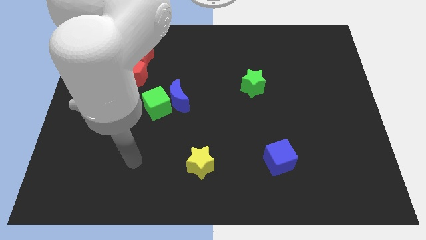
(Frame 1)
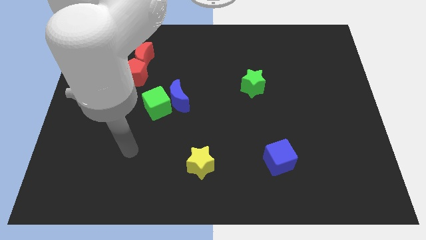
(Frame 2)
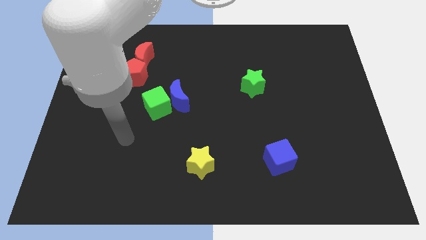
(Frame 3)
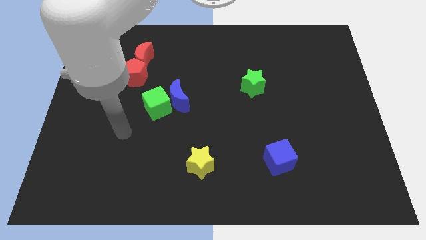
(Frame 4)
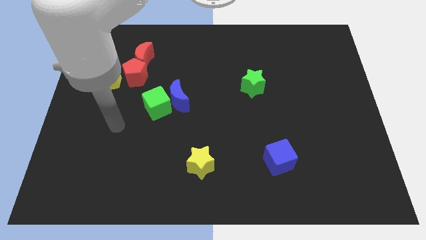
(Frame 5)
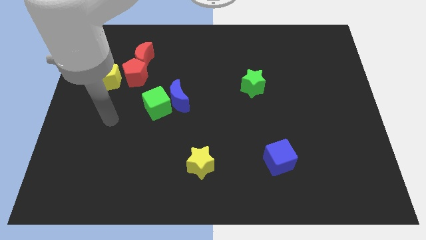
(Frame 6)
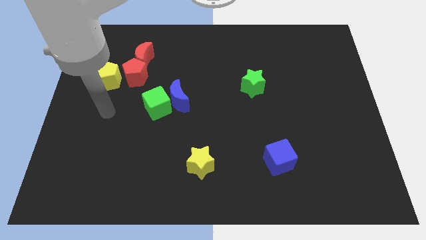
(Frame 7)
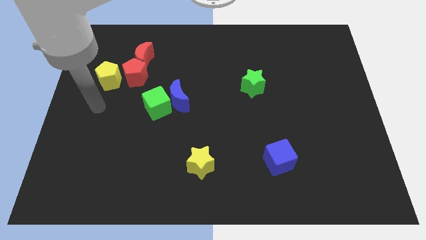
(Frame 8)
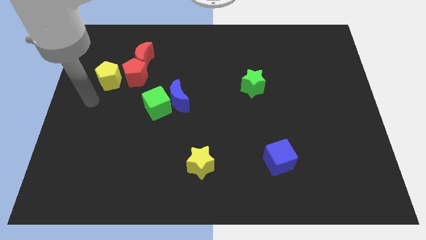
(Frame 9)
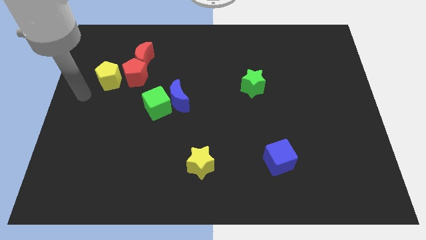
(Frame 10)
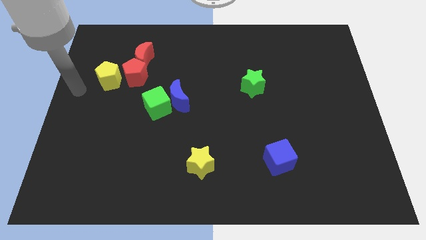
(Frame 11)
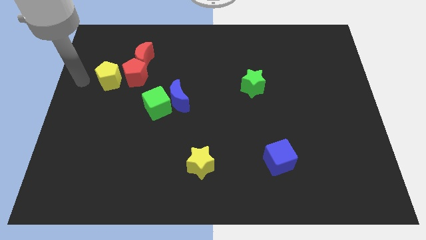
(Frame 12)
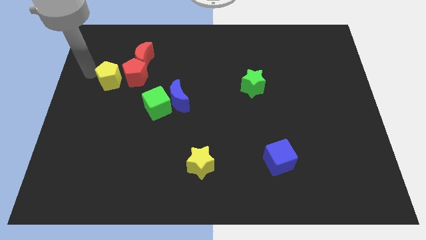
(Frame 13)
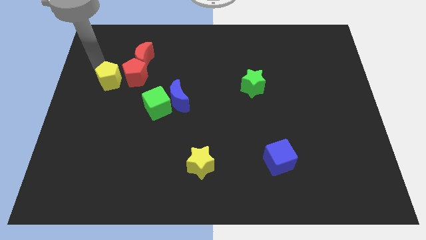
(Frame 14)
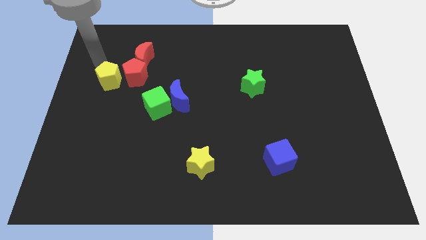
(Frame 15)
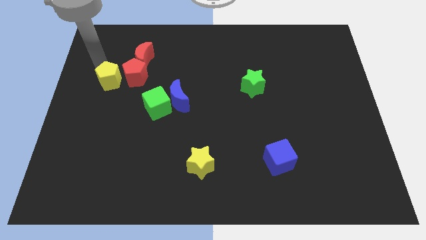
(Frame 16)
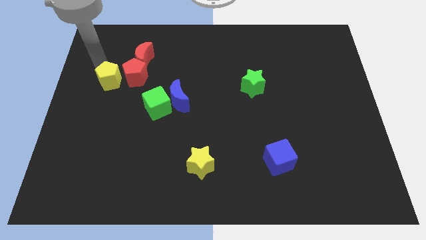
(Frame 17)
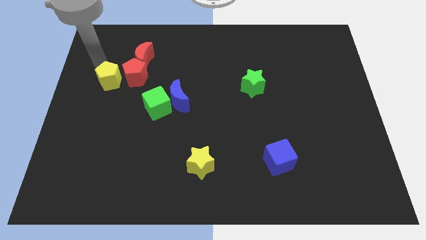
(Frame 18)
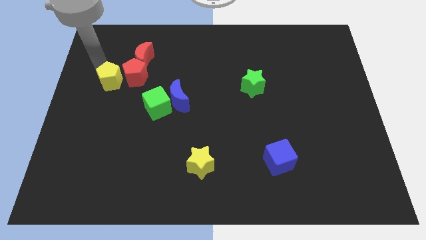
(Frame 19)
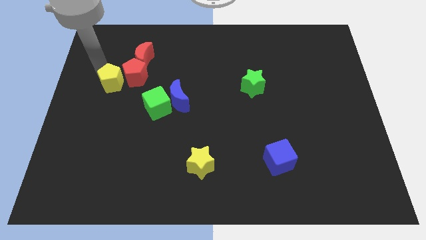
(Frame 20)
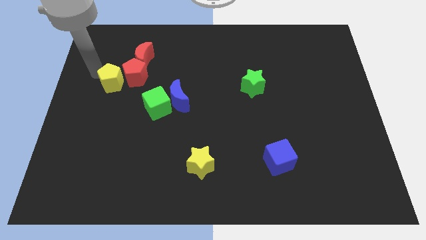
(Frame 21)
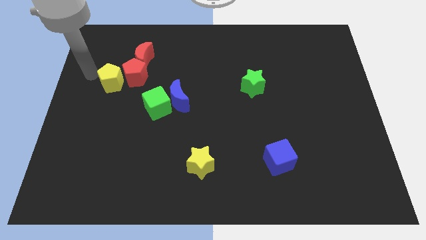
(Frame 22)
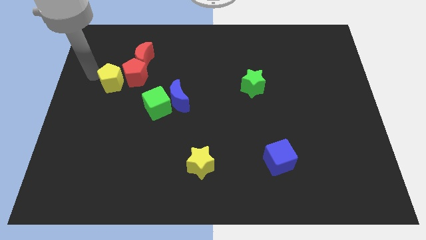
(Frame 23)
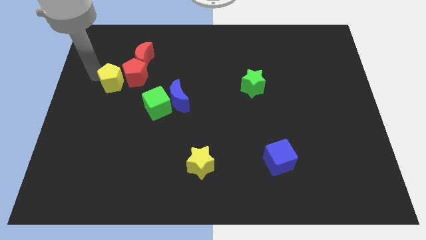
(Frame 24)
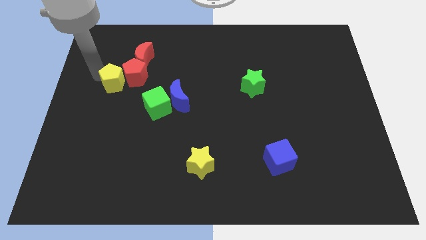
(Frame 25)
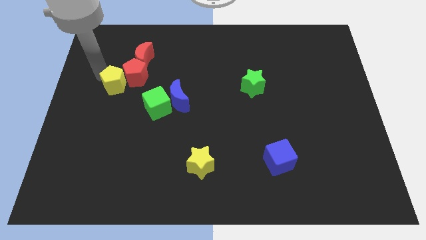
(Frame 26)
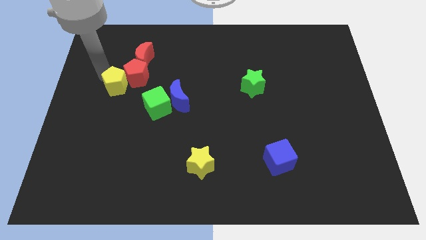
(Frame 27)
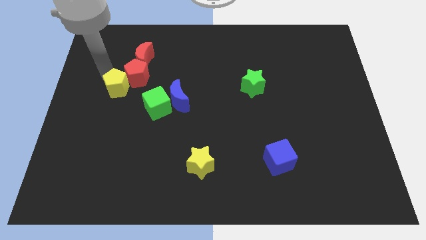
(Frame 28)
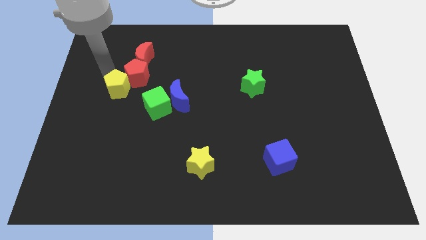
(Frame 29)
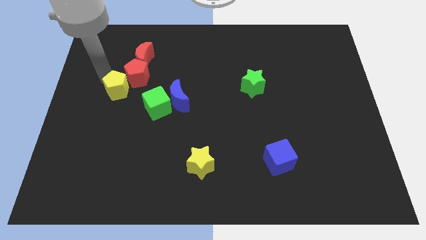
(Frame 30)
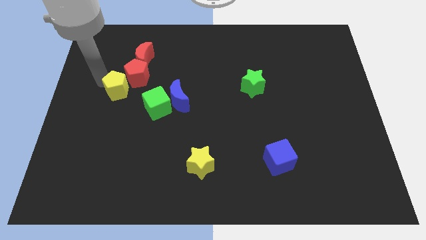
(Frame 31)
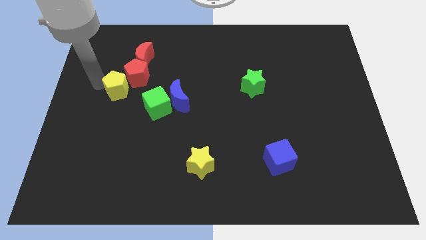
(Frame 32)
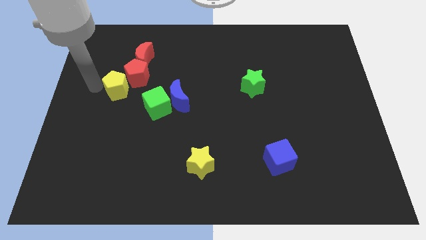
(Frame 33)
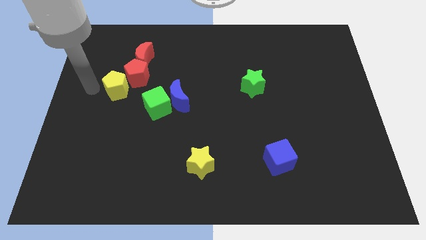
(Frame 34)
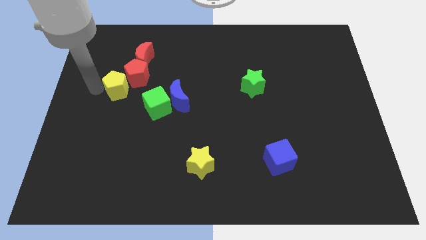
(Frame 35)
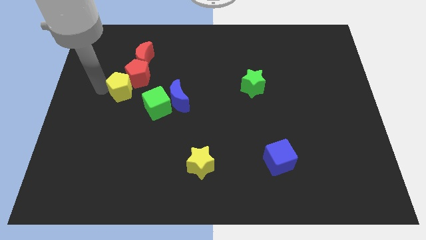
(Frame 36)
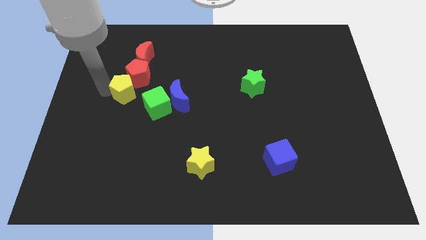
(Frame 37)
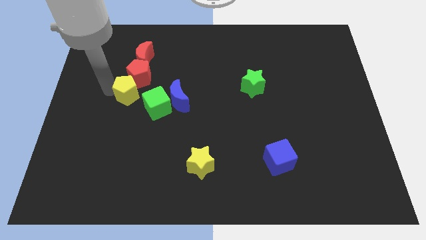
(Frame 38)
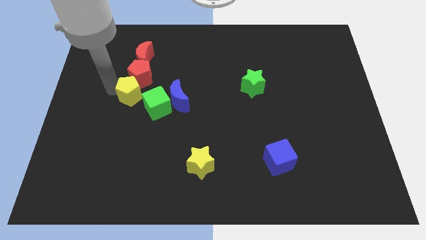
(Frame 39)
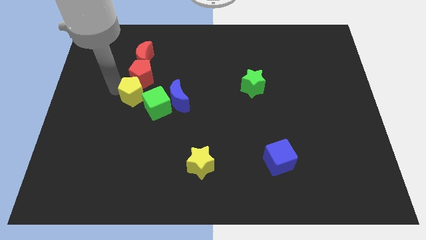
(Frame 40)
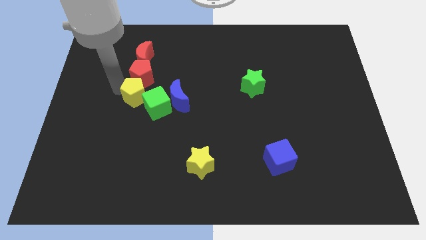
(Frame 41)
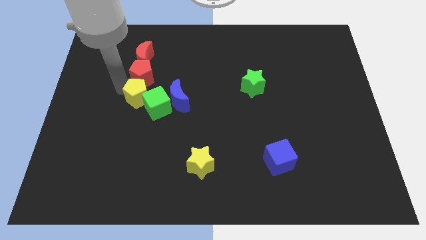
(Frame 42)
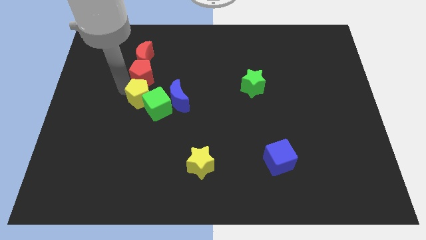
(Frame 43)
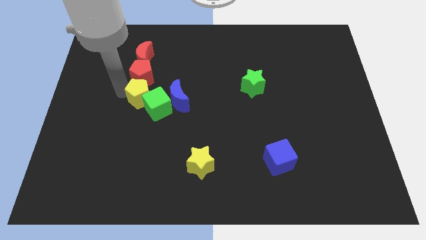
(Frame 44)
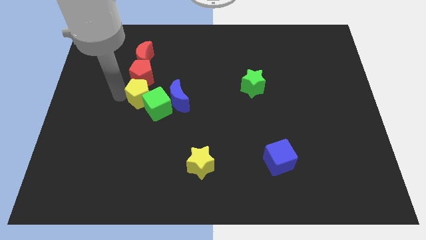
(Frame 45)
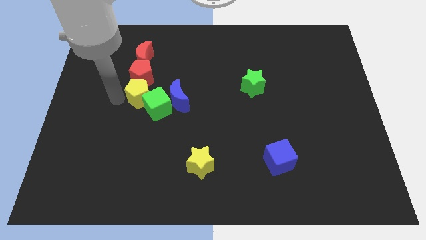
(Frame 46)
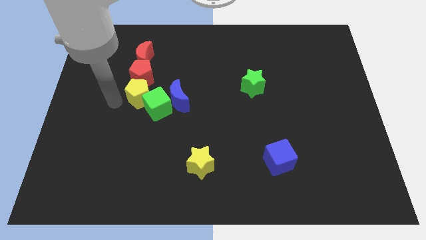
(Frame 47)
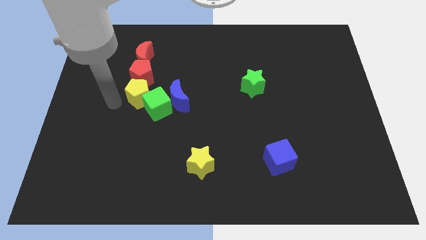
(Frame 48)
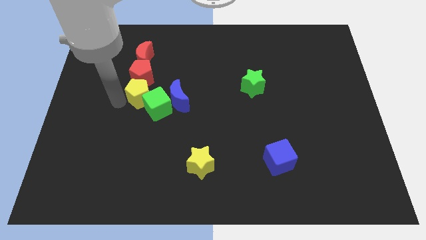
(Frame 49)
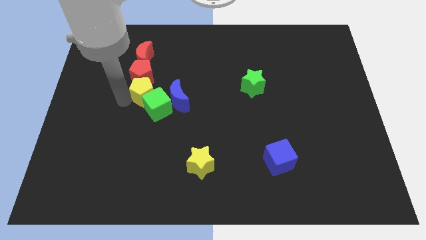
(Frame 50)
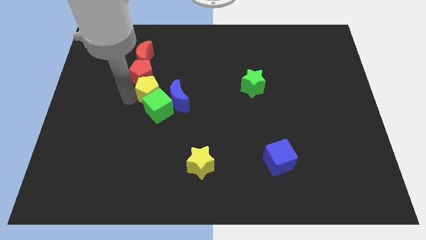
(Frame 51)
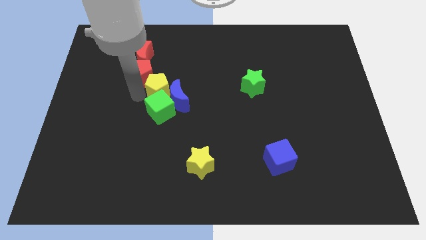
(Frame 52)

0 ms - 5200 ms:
put the yellow pentagon to the top right of the green cube

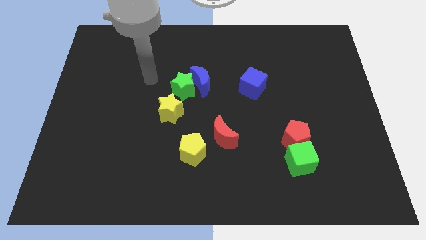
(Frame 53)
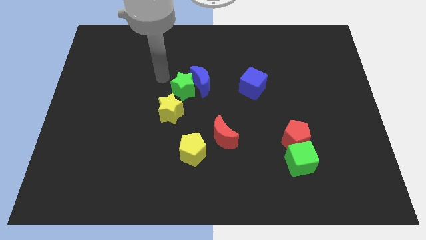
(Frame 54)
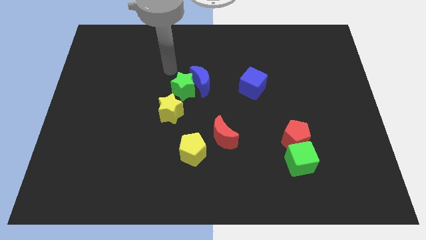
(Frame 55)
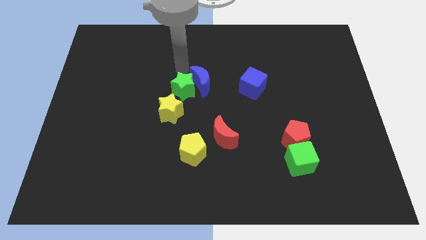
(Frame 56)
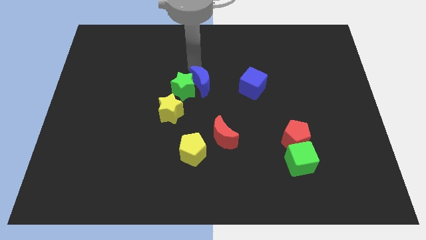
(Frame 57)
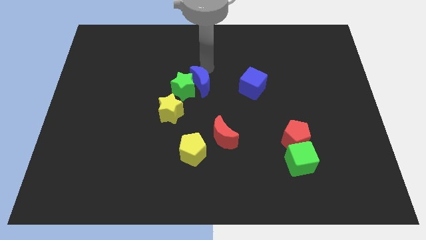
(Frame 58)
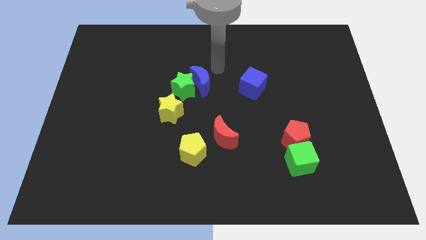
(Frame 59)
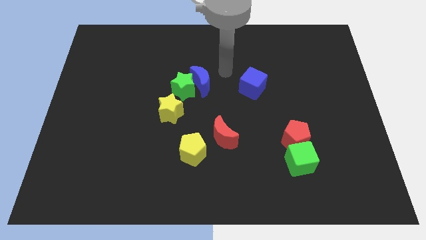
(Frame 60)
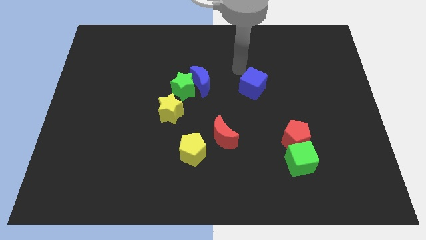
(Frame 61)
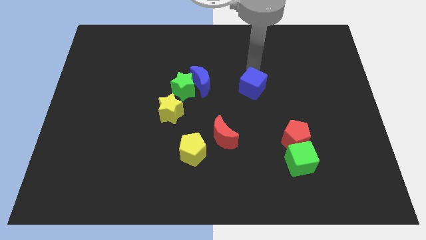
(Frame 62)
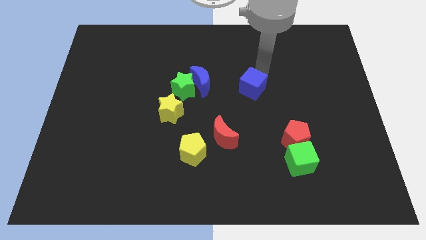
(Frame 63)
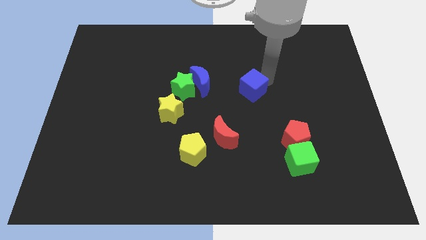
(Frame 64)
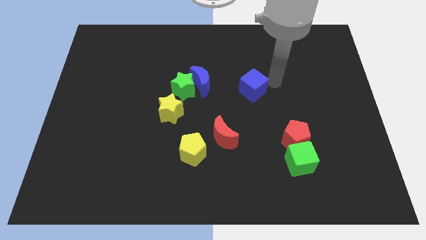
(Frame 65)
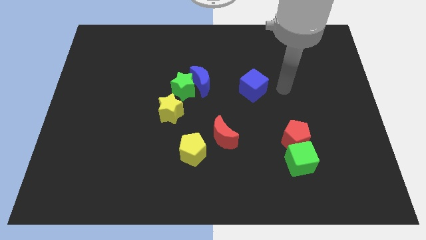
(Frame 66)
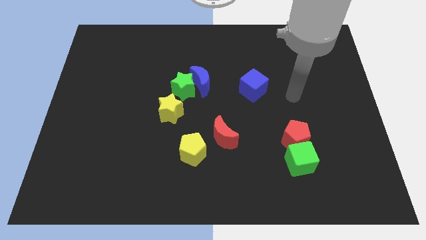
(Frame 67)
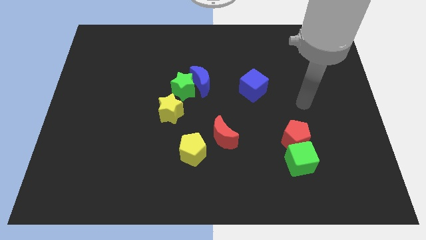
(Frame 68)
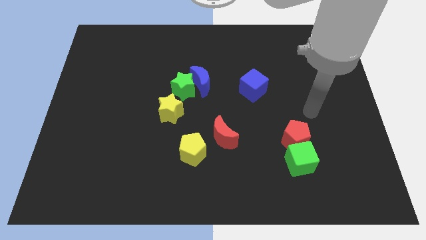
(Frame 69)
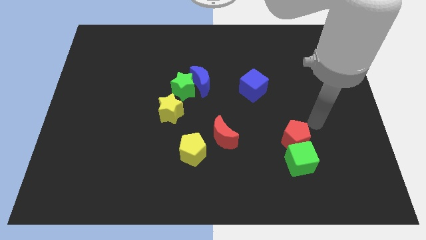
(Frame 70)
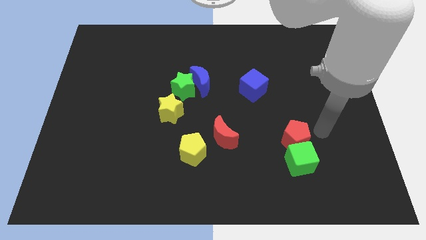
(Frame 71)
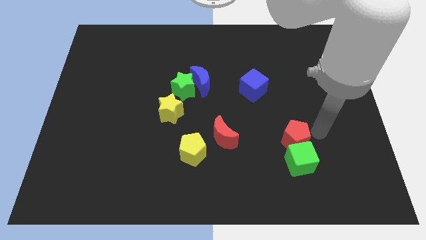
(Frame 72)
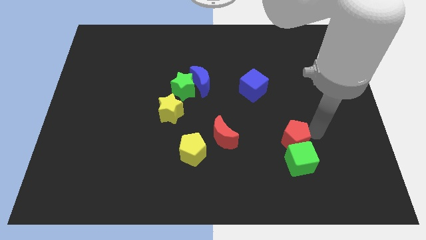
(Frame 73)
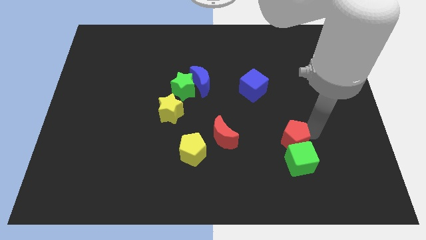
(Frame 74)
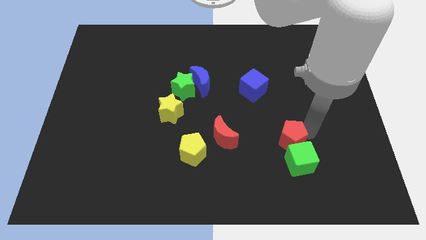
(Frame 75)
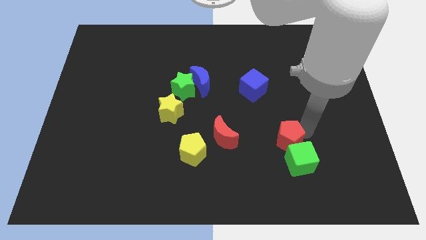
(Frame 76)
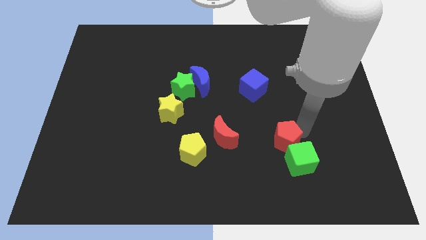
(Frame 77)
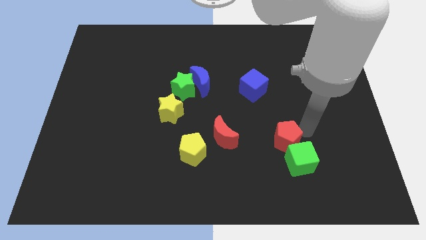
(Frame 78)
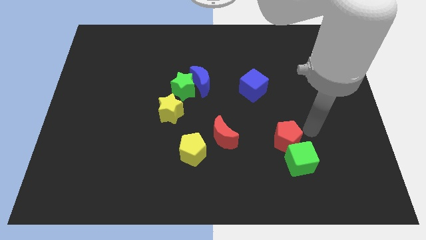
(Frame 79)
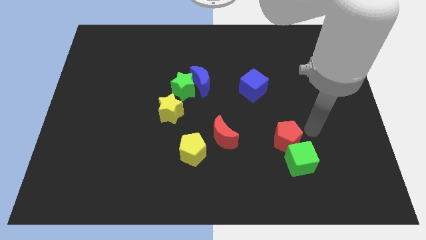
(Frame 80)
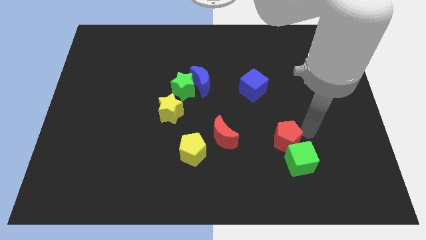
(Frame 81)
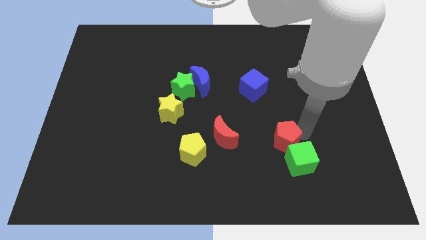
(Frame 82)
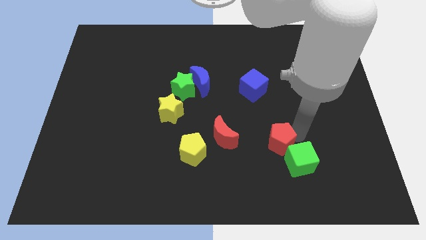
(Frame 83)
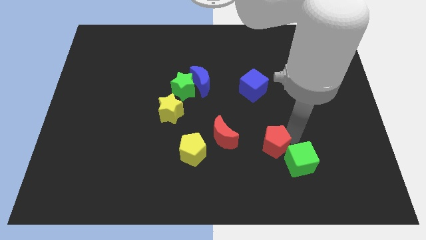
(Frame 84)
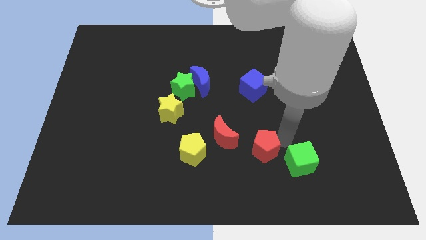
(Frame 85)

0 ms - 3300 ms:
move the red pentagon to the right side of the yellow pentagon
